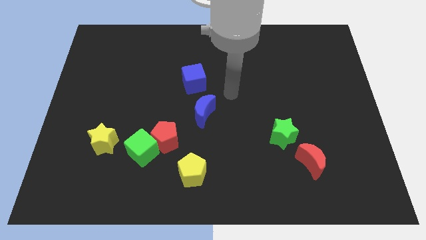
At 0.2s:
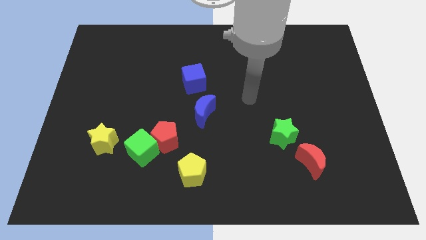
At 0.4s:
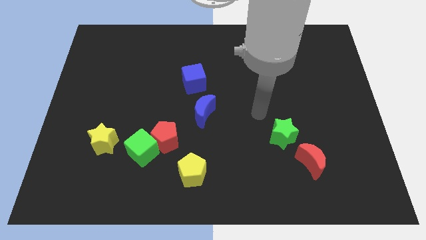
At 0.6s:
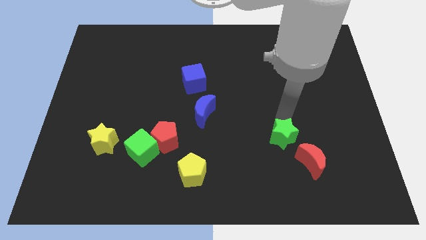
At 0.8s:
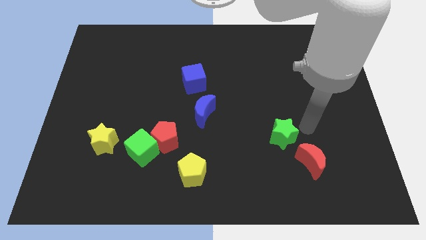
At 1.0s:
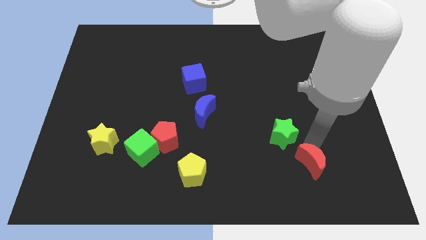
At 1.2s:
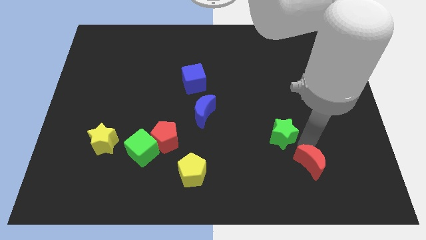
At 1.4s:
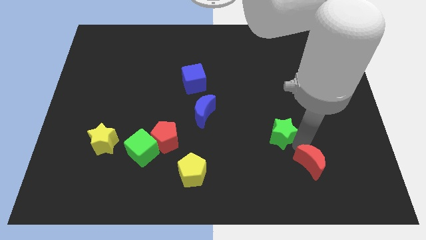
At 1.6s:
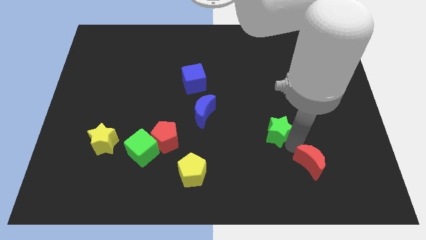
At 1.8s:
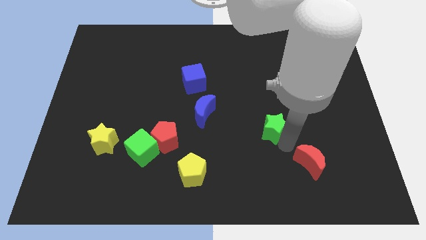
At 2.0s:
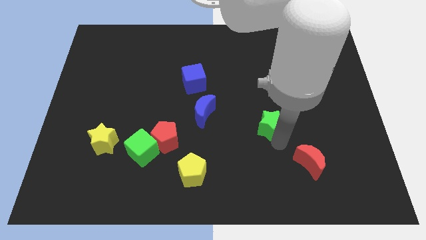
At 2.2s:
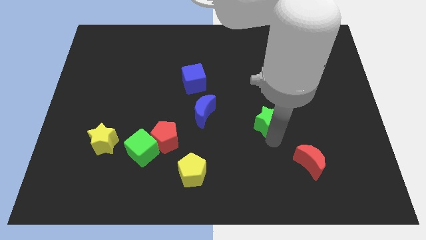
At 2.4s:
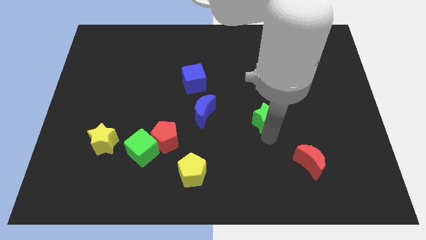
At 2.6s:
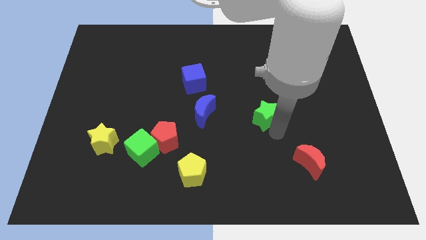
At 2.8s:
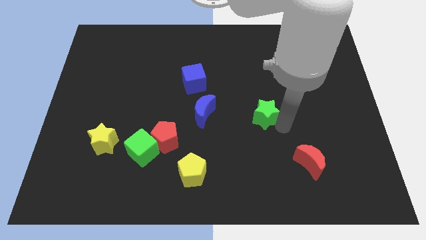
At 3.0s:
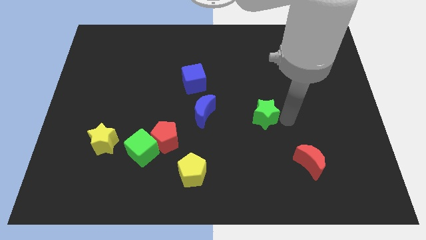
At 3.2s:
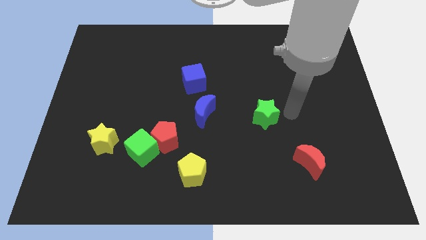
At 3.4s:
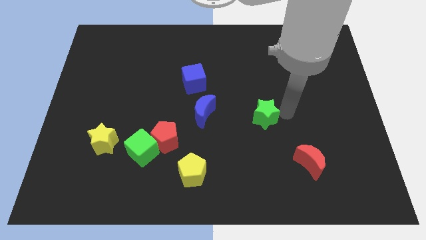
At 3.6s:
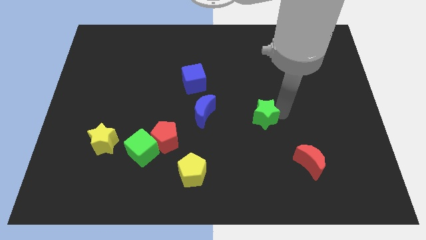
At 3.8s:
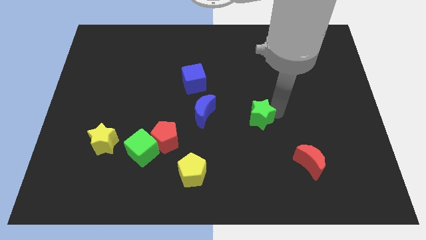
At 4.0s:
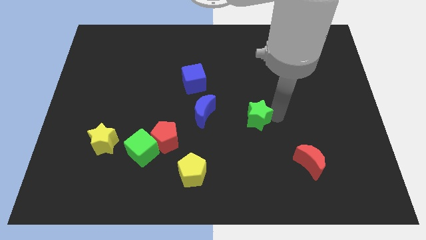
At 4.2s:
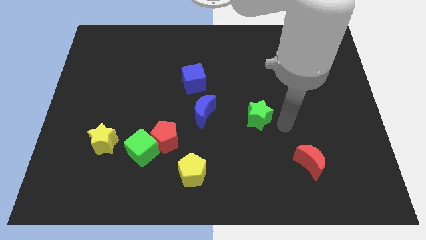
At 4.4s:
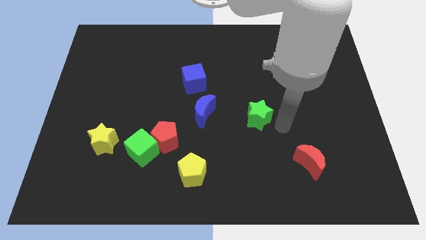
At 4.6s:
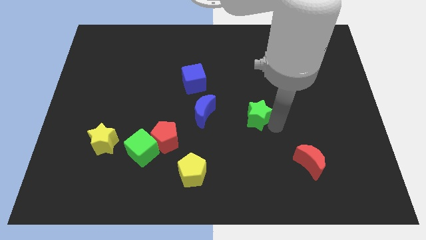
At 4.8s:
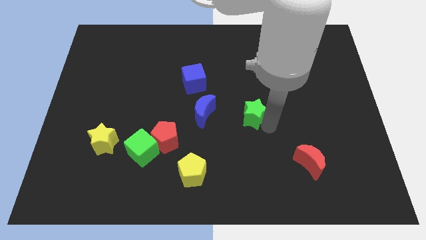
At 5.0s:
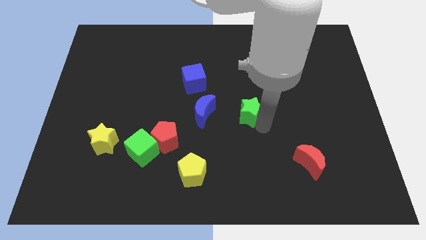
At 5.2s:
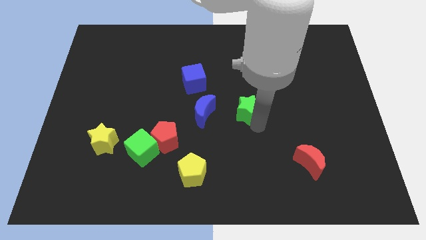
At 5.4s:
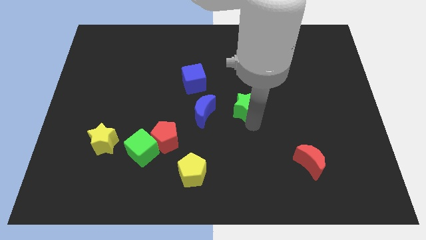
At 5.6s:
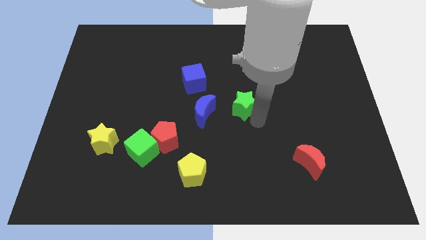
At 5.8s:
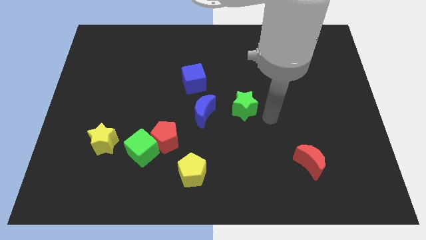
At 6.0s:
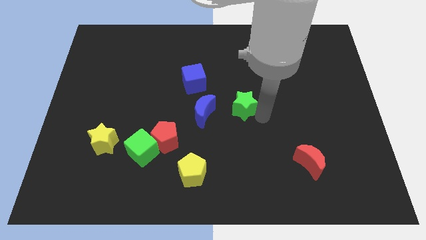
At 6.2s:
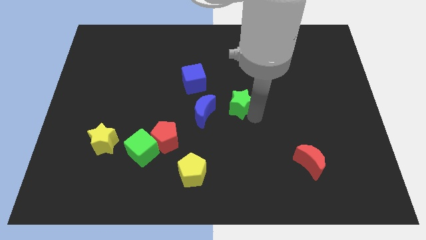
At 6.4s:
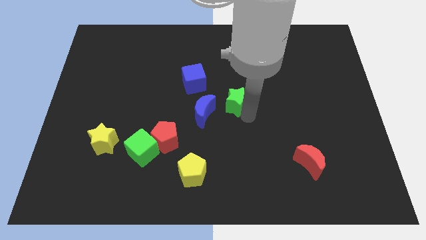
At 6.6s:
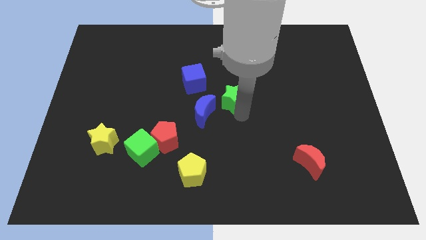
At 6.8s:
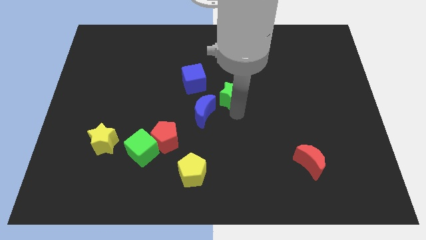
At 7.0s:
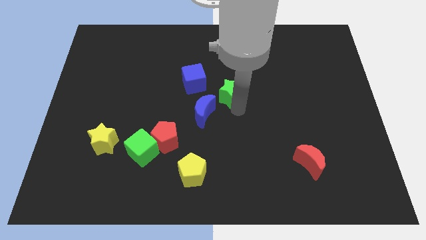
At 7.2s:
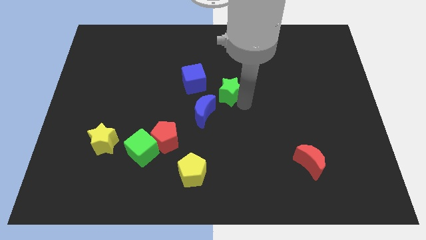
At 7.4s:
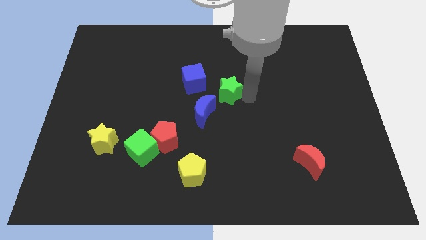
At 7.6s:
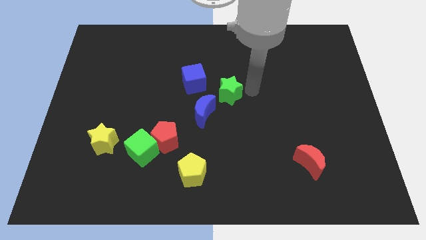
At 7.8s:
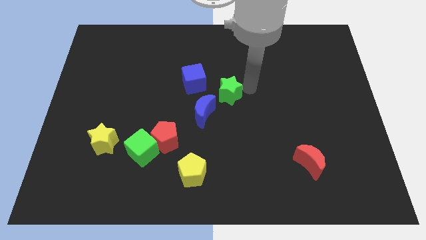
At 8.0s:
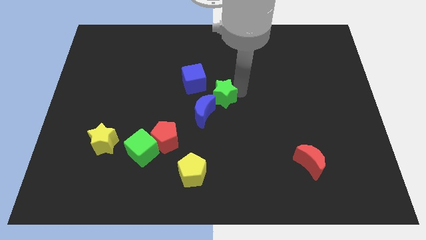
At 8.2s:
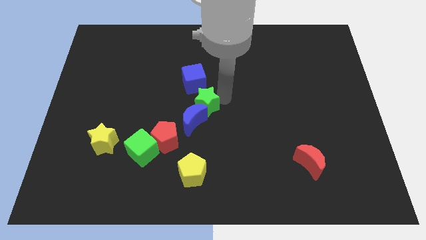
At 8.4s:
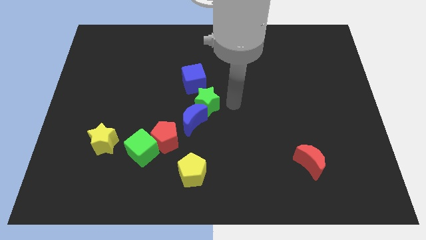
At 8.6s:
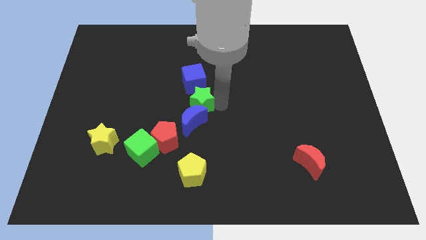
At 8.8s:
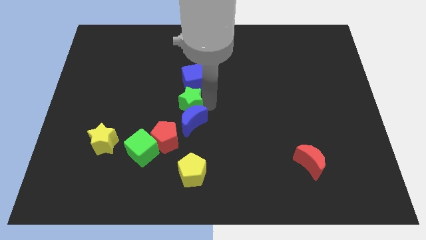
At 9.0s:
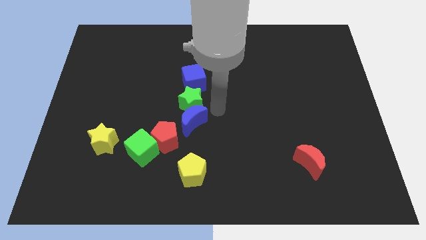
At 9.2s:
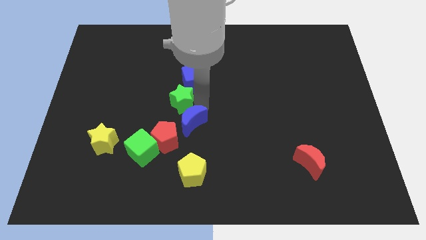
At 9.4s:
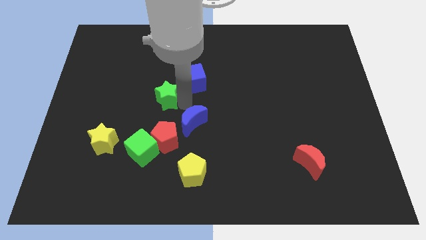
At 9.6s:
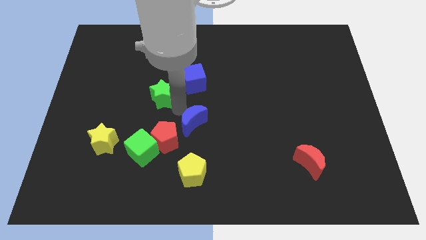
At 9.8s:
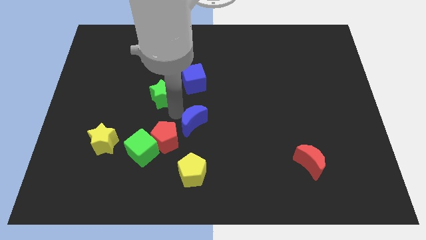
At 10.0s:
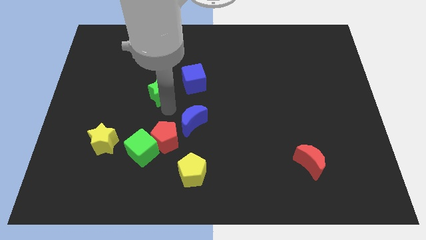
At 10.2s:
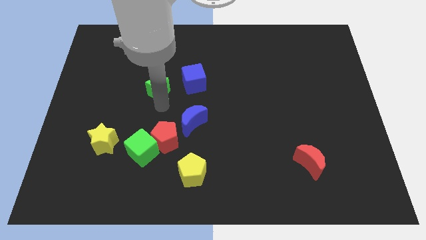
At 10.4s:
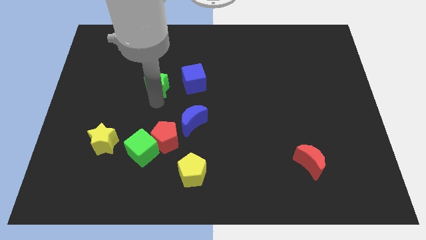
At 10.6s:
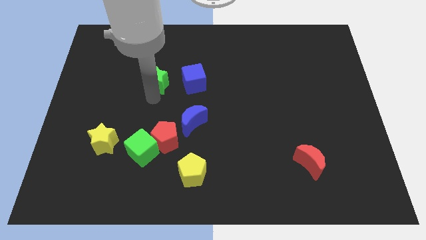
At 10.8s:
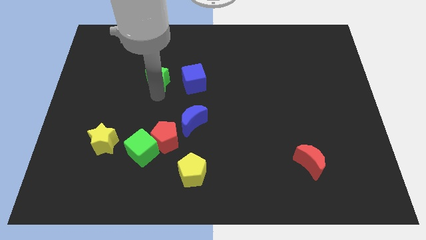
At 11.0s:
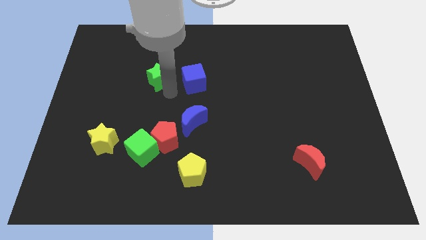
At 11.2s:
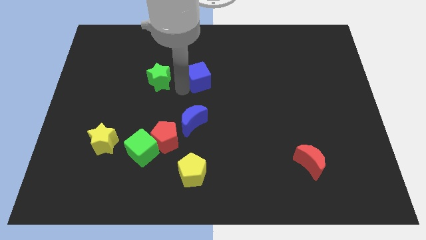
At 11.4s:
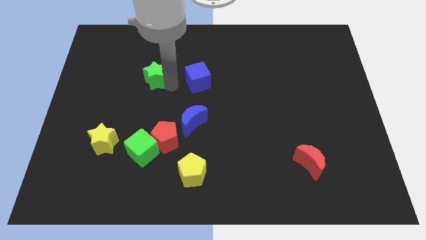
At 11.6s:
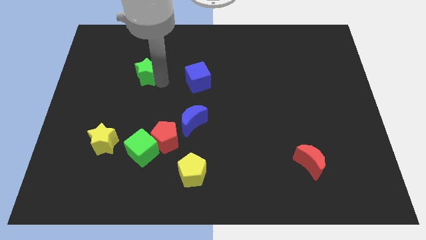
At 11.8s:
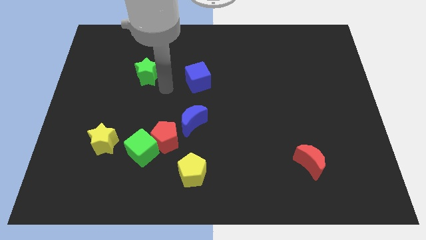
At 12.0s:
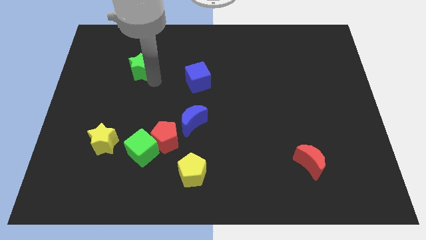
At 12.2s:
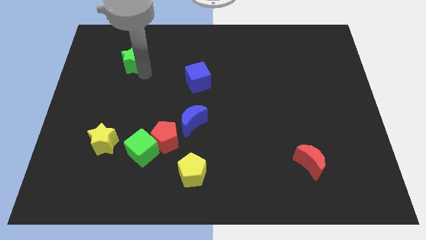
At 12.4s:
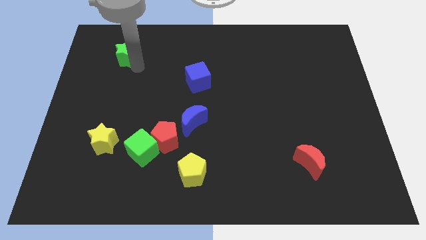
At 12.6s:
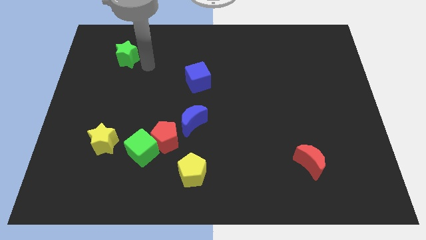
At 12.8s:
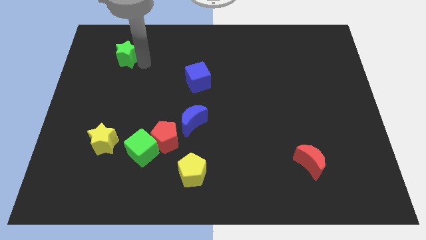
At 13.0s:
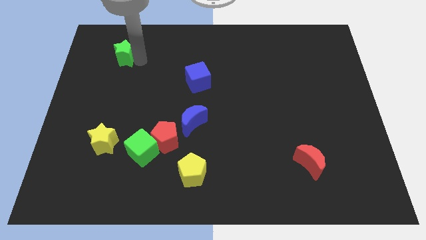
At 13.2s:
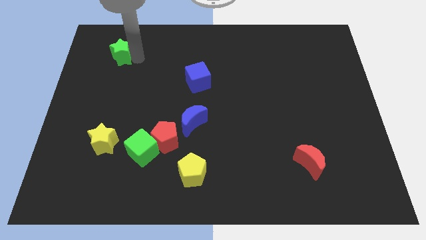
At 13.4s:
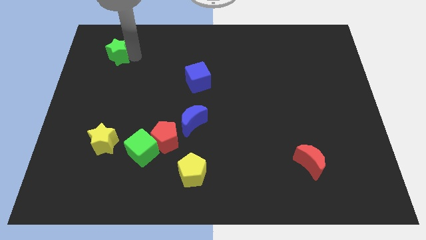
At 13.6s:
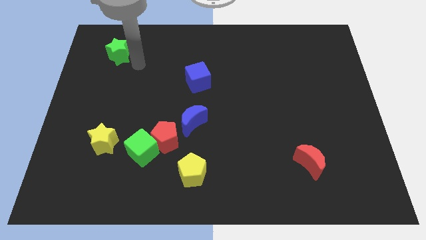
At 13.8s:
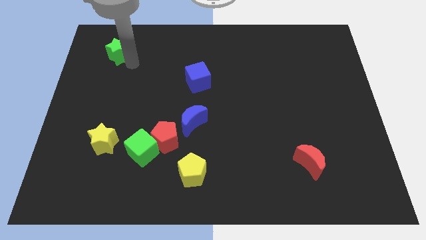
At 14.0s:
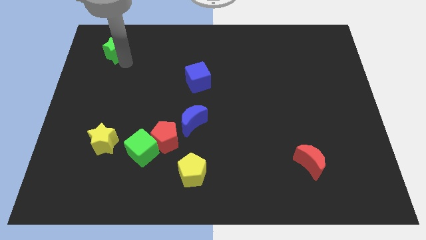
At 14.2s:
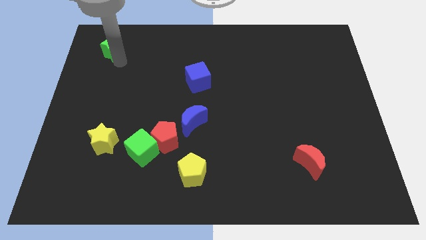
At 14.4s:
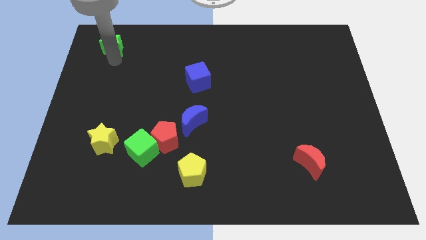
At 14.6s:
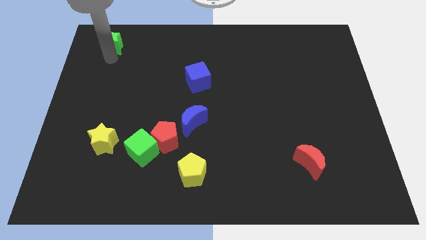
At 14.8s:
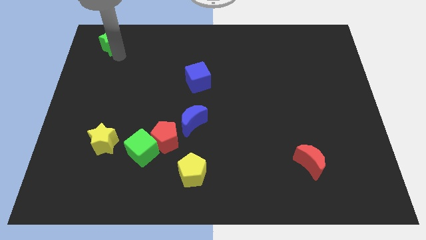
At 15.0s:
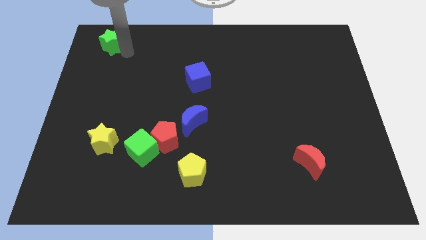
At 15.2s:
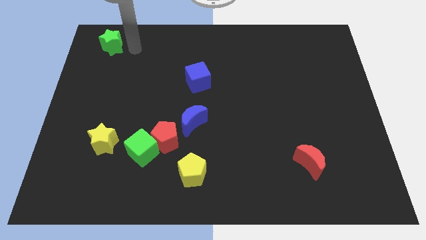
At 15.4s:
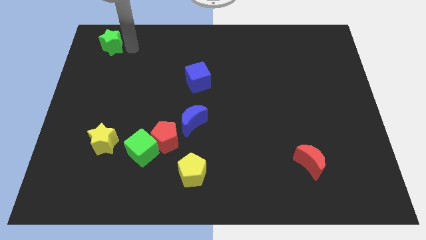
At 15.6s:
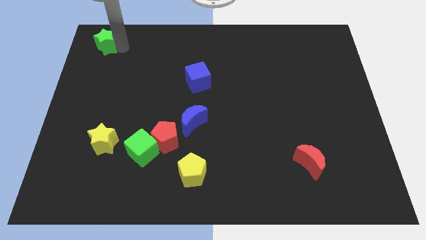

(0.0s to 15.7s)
slide the green star to the top left
